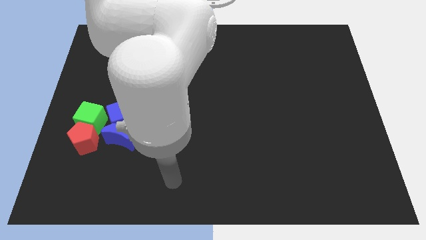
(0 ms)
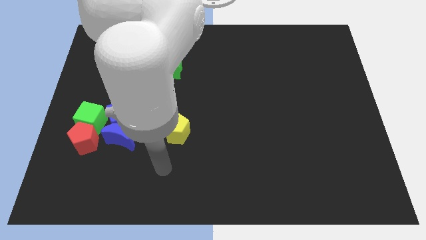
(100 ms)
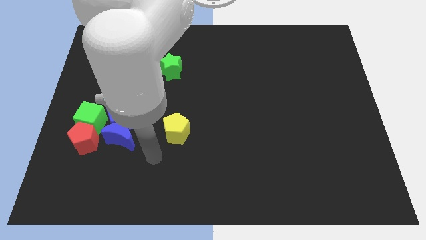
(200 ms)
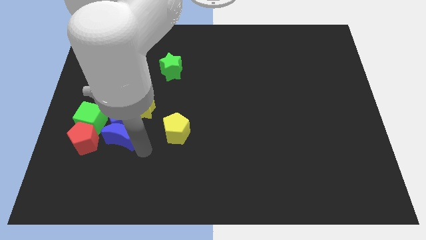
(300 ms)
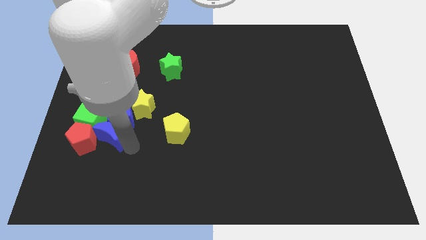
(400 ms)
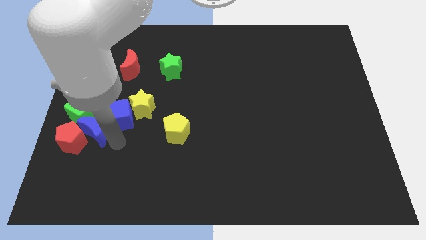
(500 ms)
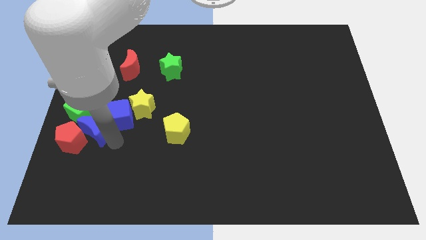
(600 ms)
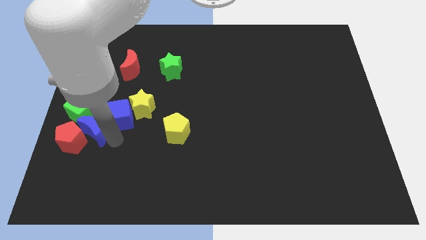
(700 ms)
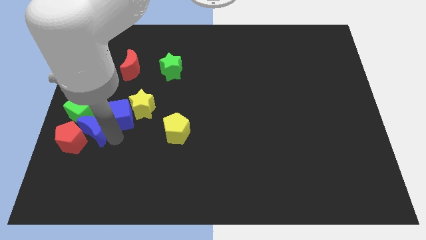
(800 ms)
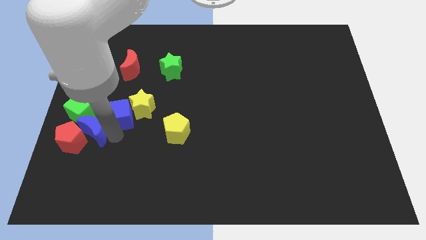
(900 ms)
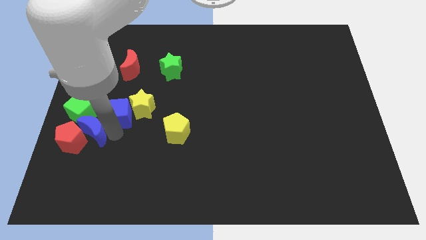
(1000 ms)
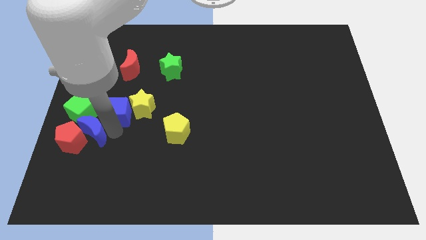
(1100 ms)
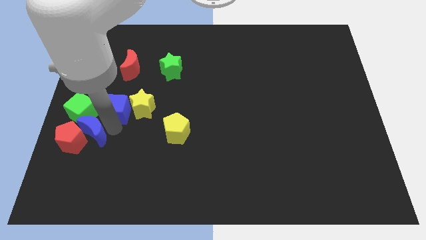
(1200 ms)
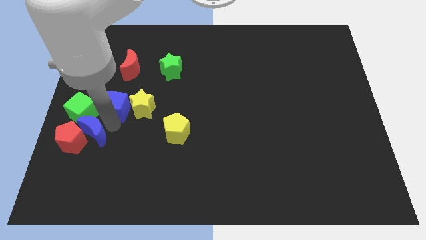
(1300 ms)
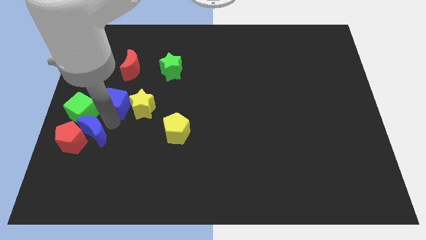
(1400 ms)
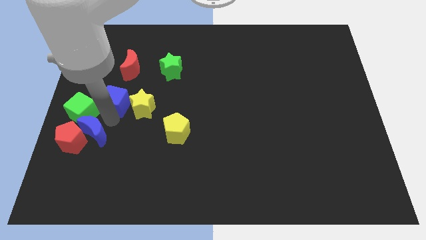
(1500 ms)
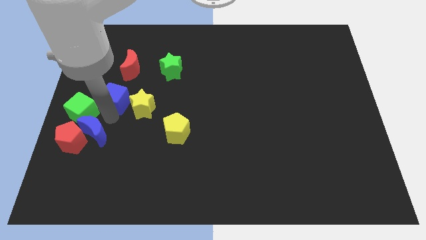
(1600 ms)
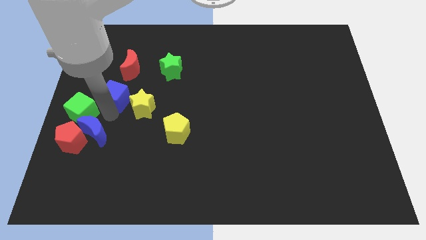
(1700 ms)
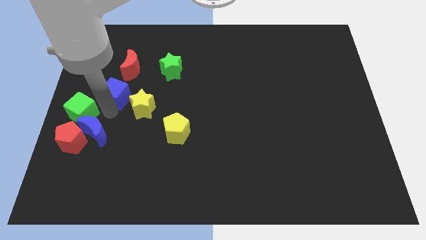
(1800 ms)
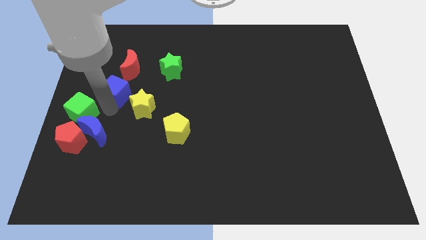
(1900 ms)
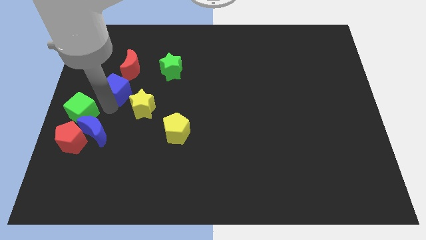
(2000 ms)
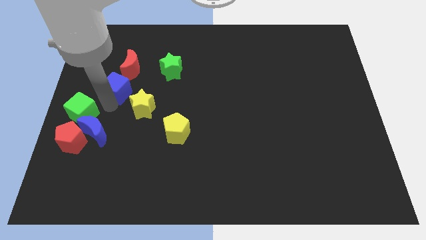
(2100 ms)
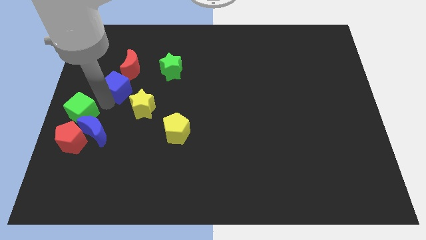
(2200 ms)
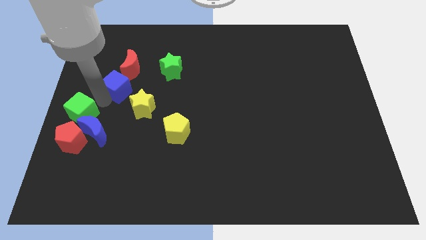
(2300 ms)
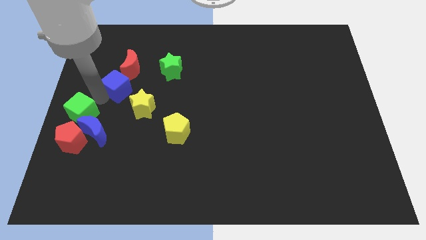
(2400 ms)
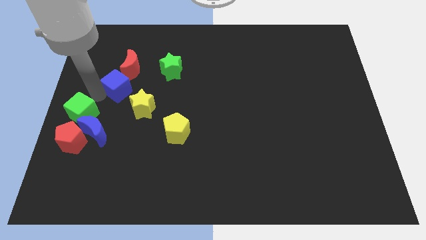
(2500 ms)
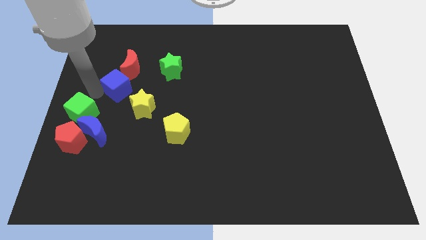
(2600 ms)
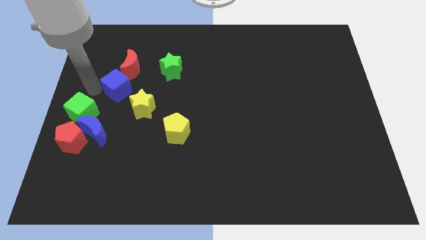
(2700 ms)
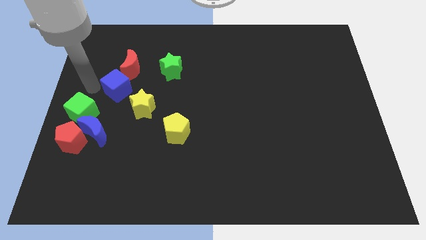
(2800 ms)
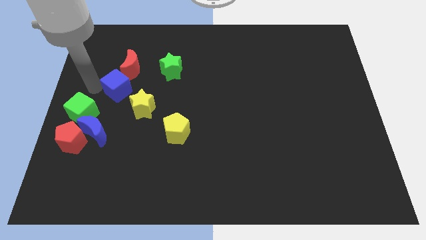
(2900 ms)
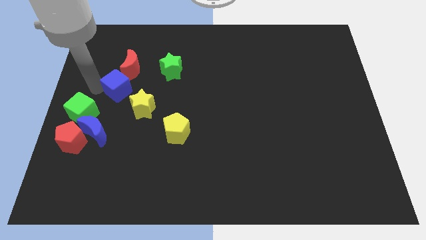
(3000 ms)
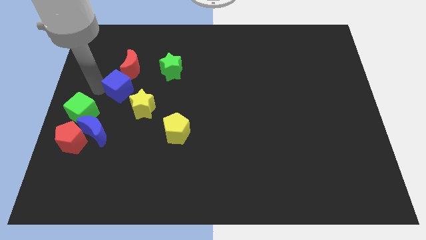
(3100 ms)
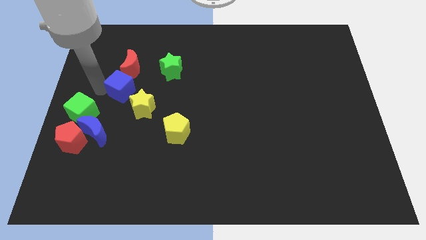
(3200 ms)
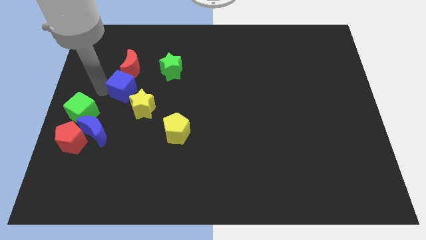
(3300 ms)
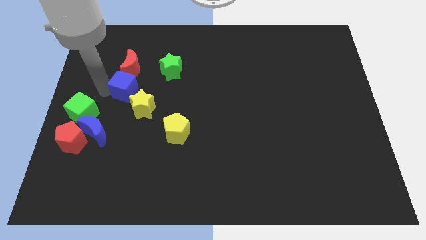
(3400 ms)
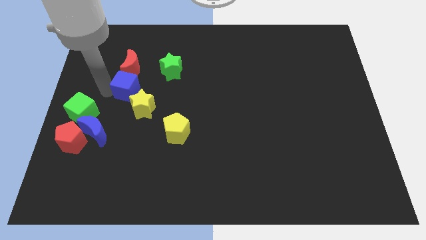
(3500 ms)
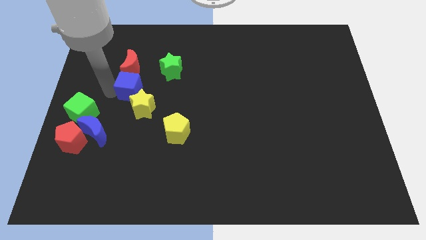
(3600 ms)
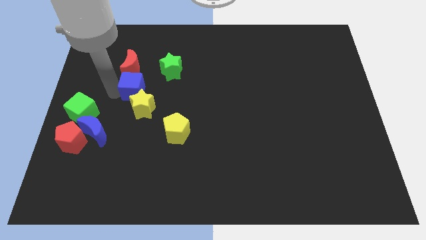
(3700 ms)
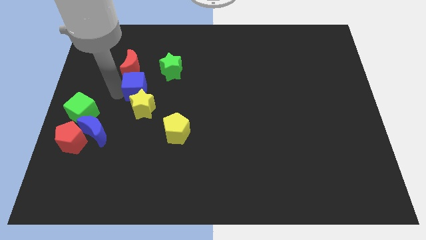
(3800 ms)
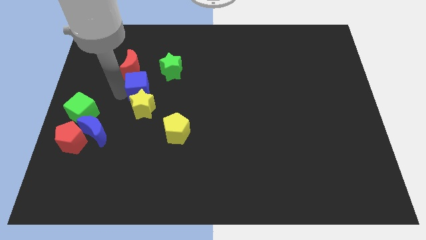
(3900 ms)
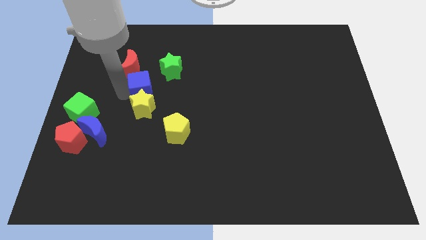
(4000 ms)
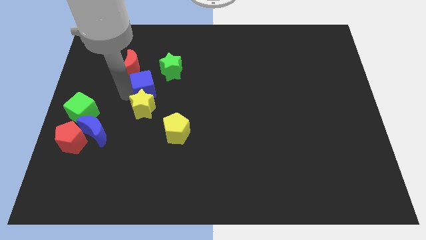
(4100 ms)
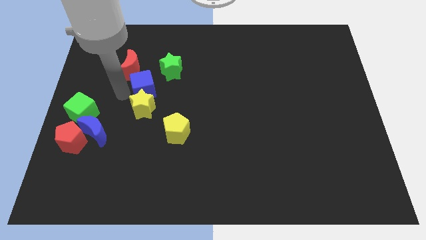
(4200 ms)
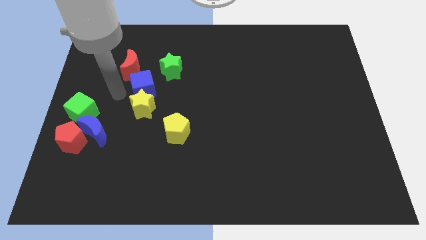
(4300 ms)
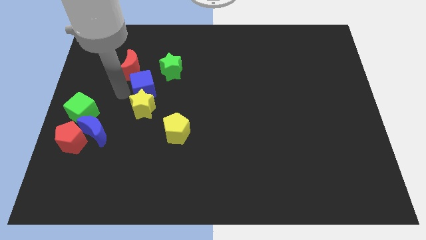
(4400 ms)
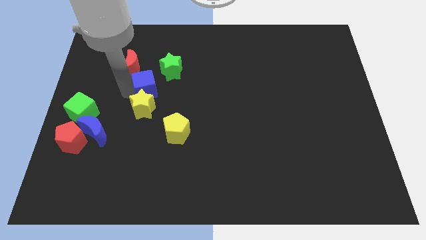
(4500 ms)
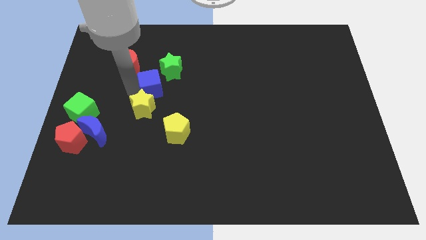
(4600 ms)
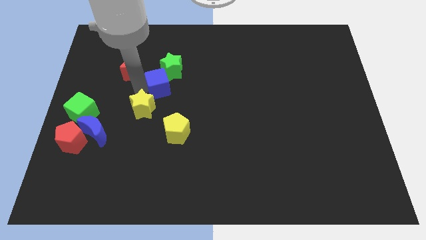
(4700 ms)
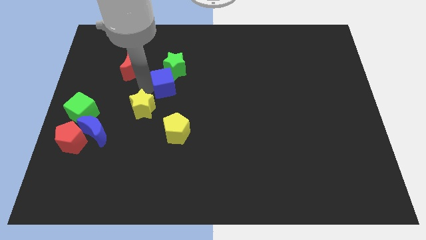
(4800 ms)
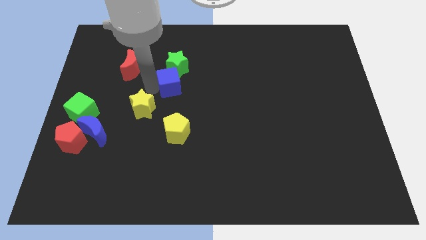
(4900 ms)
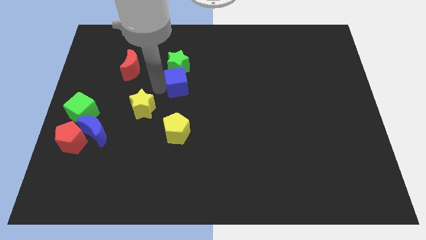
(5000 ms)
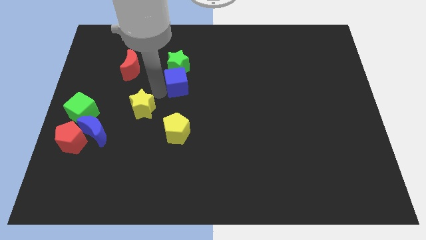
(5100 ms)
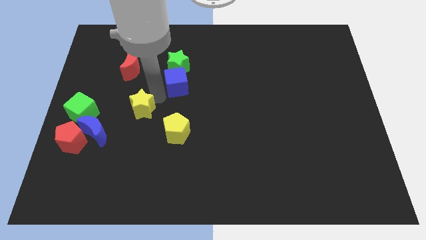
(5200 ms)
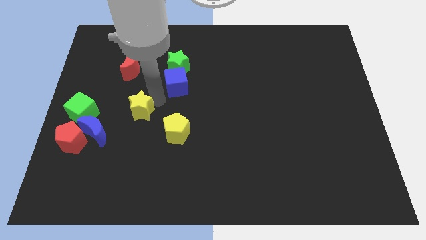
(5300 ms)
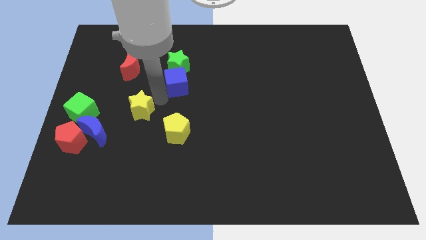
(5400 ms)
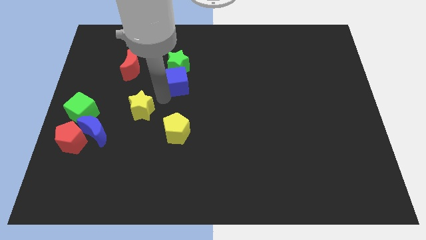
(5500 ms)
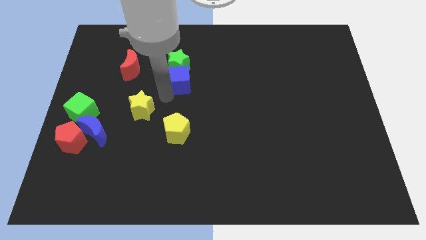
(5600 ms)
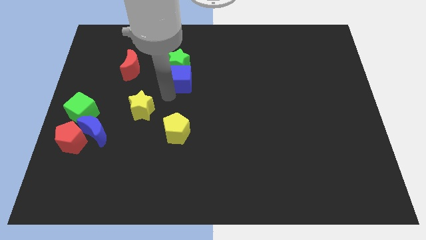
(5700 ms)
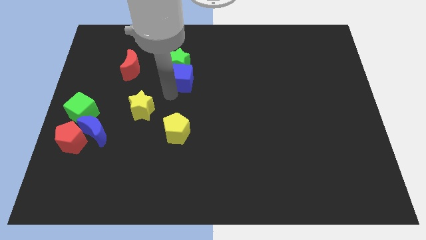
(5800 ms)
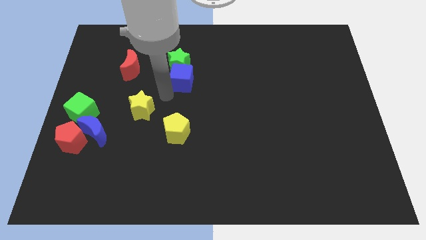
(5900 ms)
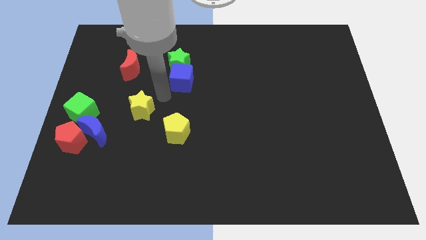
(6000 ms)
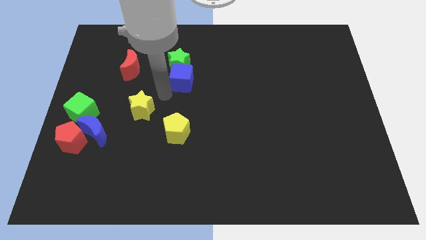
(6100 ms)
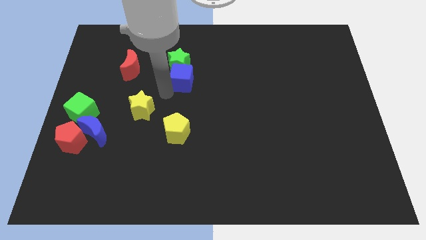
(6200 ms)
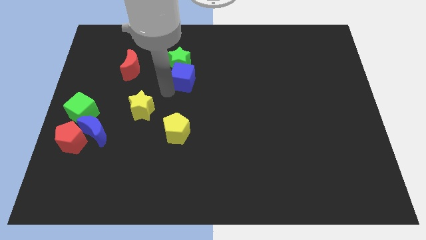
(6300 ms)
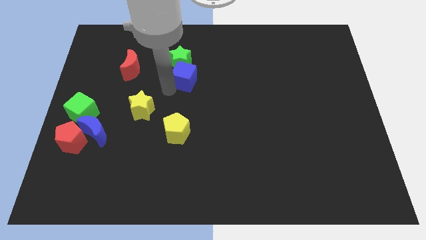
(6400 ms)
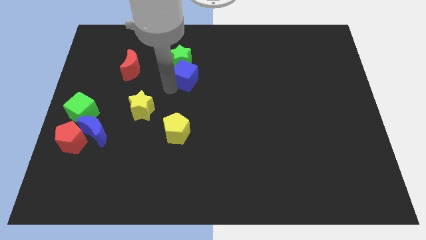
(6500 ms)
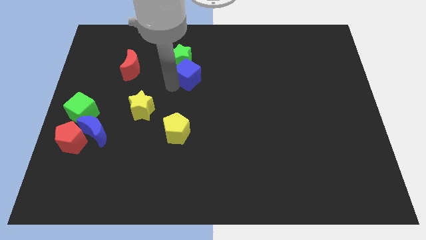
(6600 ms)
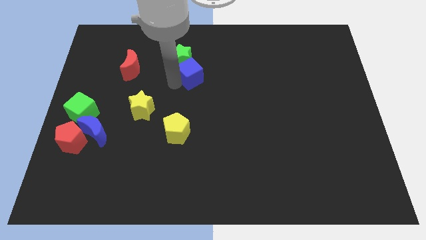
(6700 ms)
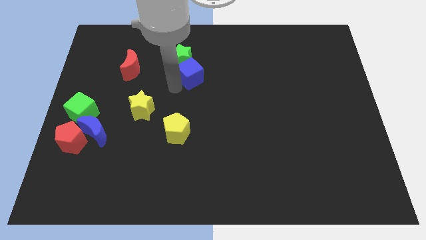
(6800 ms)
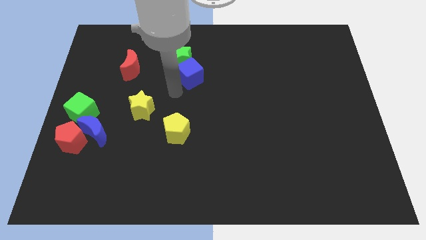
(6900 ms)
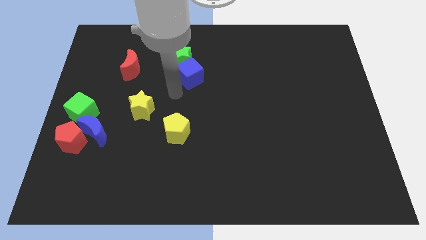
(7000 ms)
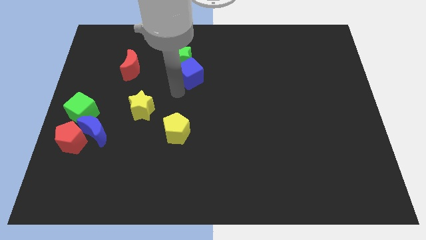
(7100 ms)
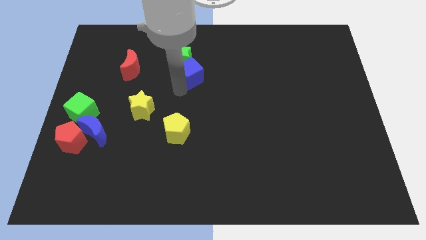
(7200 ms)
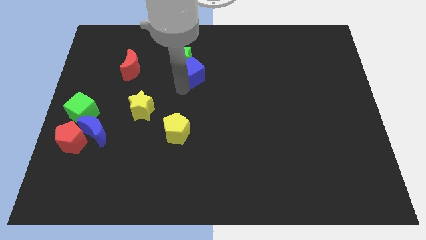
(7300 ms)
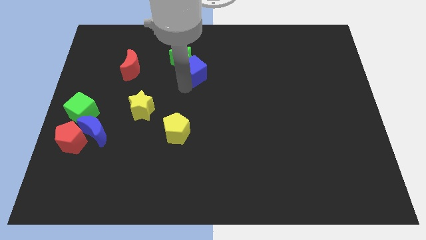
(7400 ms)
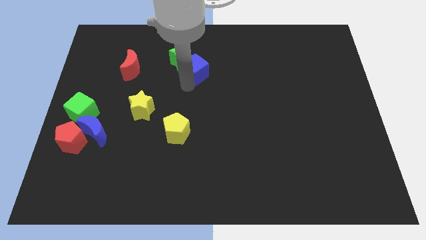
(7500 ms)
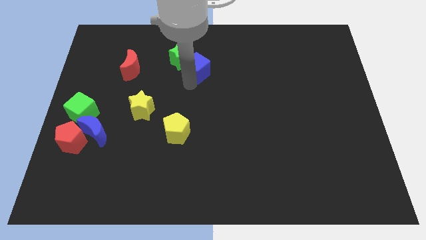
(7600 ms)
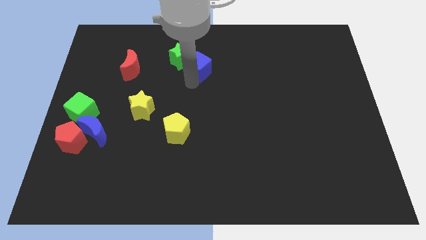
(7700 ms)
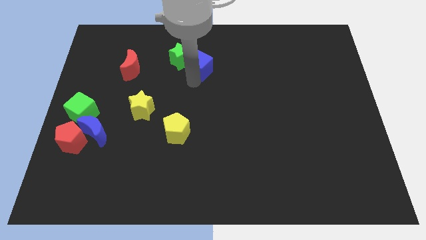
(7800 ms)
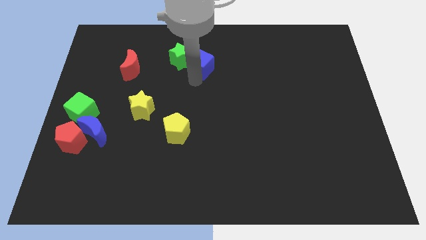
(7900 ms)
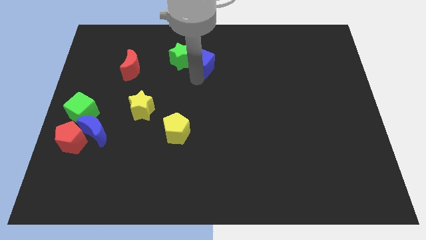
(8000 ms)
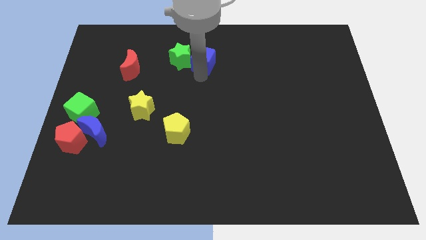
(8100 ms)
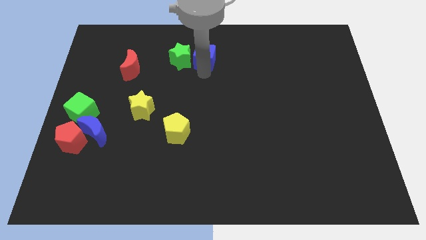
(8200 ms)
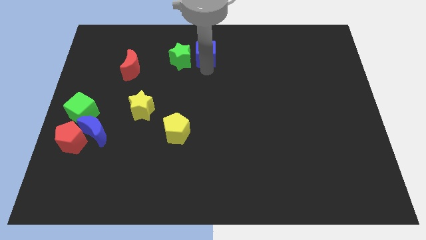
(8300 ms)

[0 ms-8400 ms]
slide the blue cube to the top side
